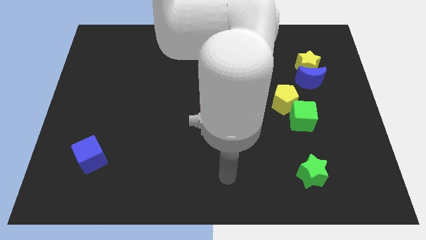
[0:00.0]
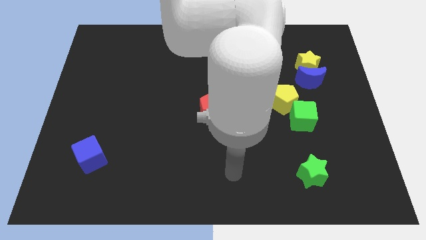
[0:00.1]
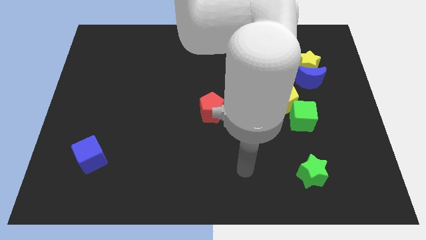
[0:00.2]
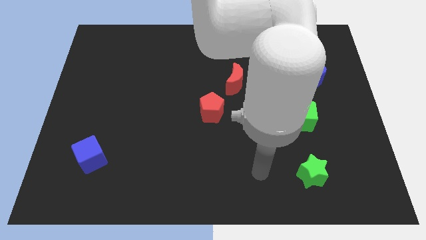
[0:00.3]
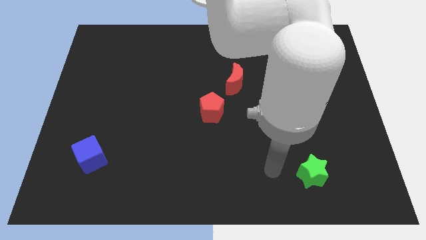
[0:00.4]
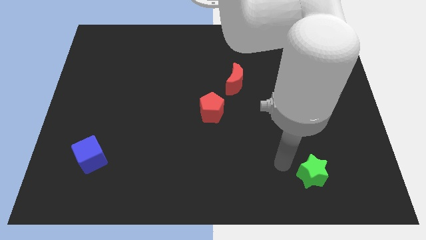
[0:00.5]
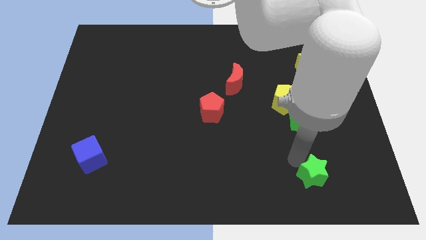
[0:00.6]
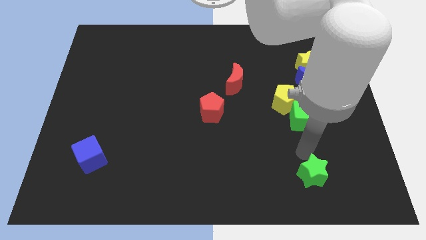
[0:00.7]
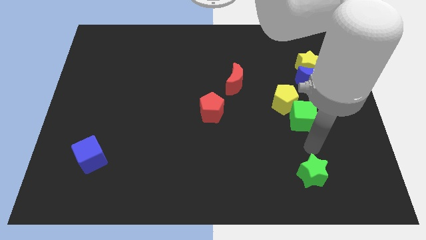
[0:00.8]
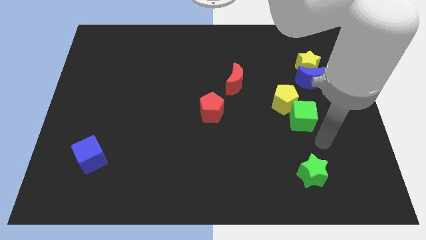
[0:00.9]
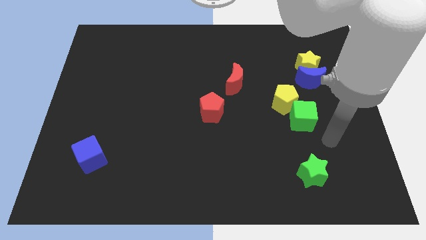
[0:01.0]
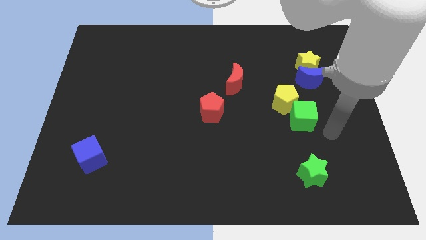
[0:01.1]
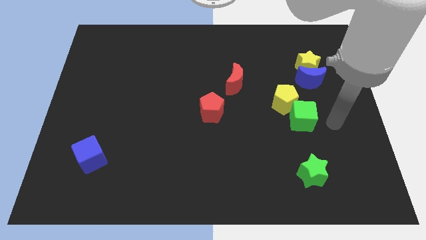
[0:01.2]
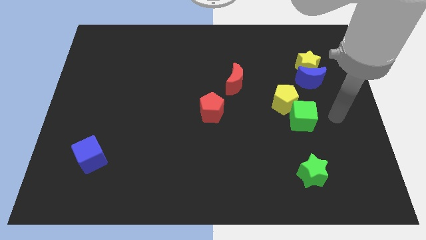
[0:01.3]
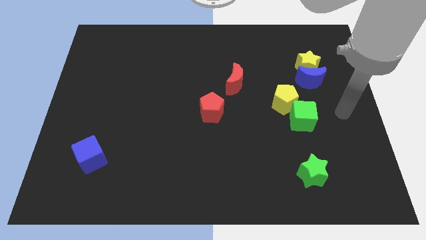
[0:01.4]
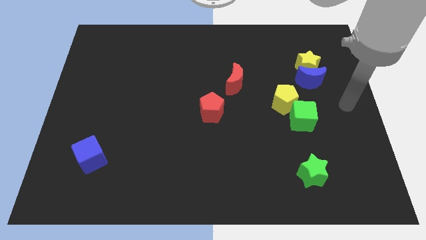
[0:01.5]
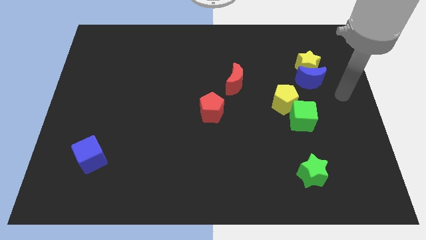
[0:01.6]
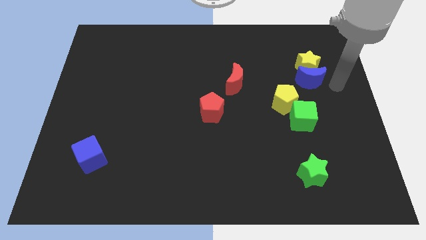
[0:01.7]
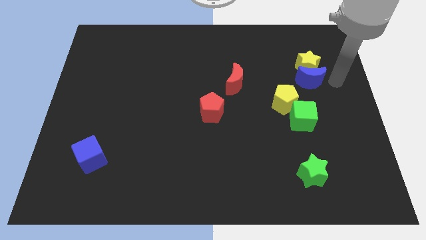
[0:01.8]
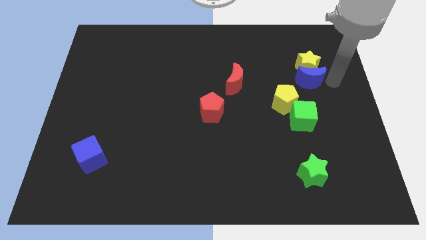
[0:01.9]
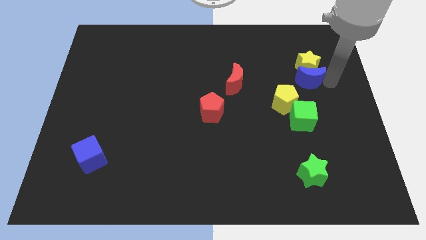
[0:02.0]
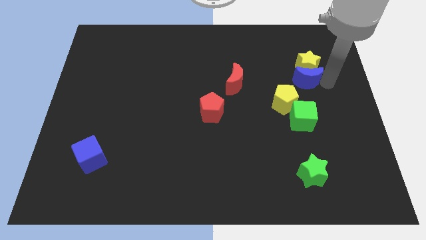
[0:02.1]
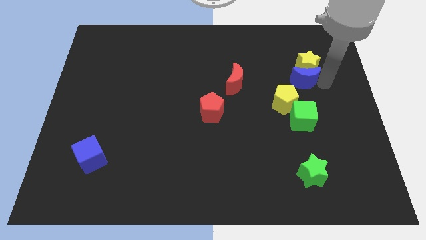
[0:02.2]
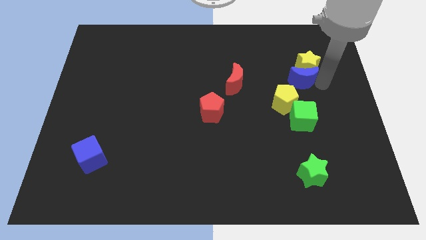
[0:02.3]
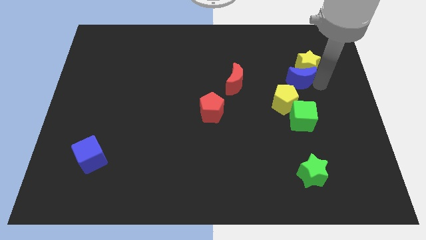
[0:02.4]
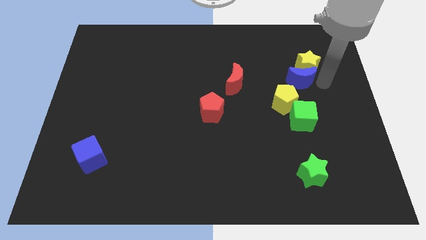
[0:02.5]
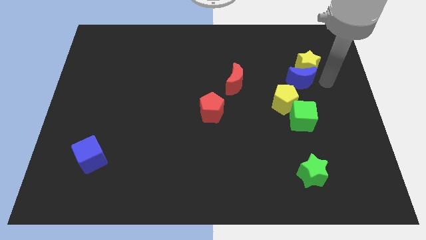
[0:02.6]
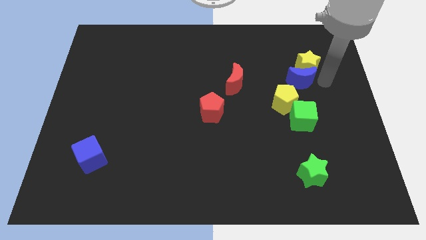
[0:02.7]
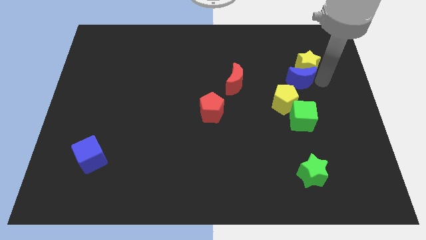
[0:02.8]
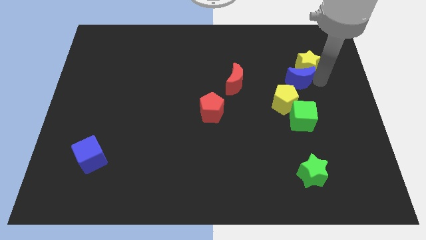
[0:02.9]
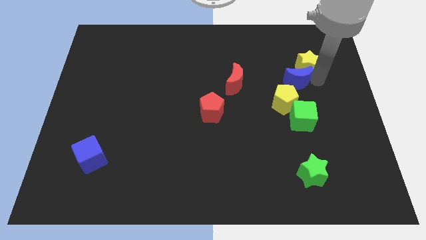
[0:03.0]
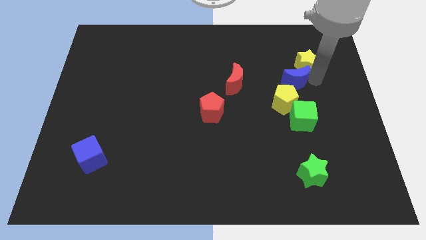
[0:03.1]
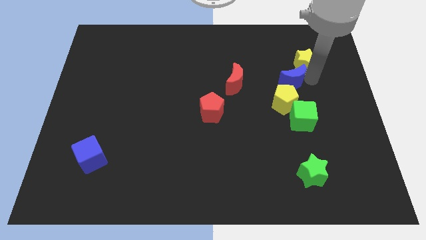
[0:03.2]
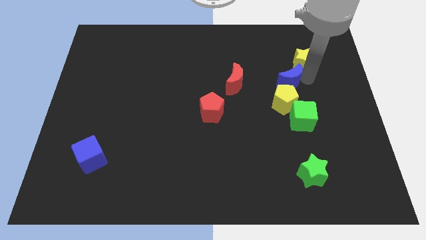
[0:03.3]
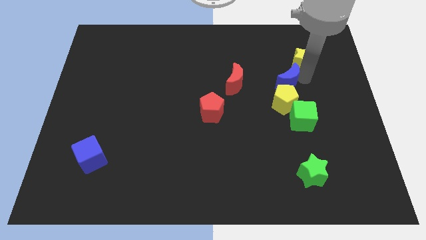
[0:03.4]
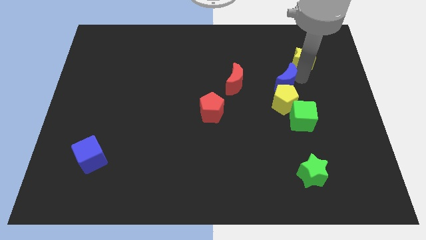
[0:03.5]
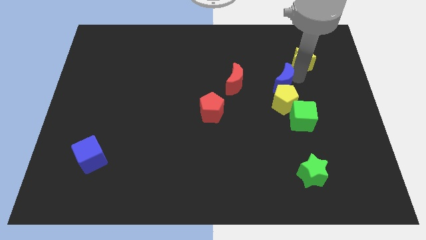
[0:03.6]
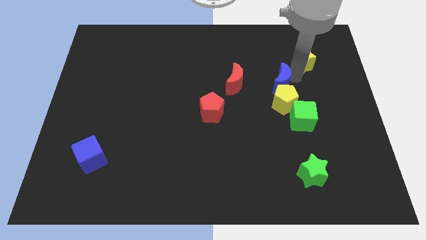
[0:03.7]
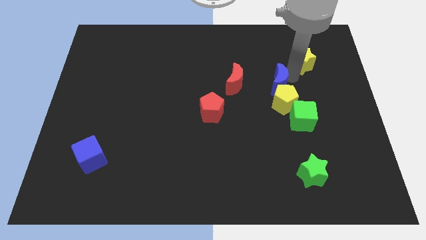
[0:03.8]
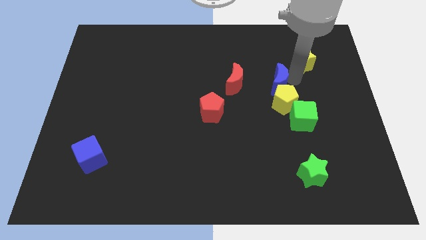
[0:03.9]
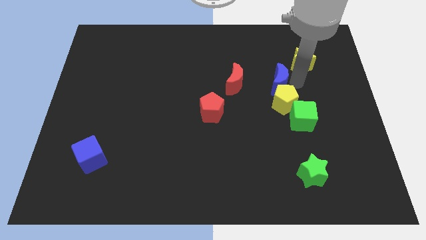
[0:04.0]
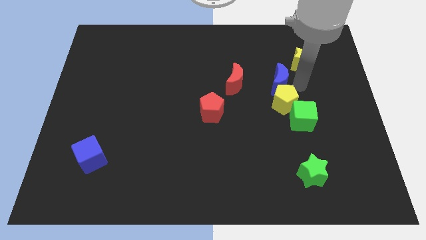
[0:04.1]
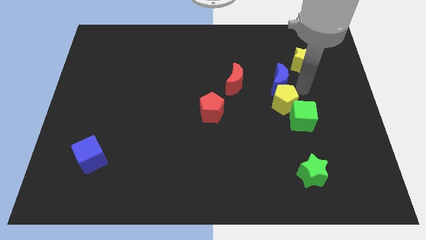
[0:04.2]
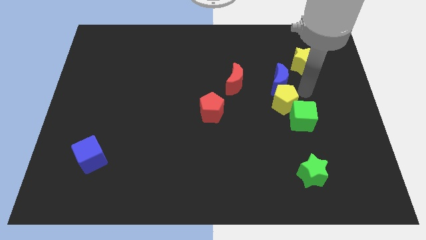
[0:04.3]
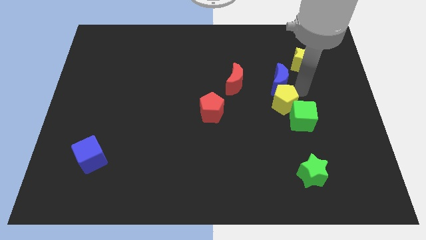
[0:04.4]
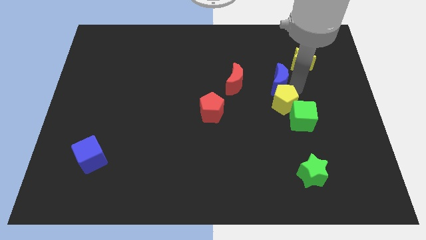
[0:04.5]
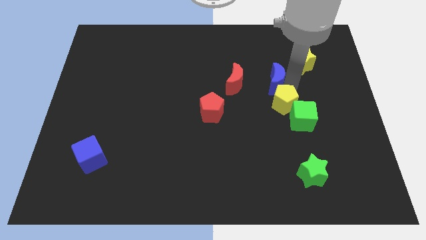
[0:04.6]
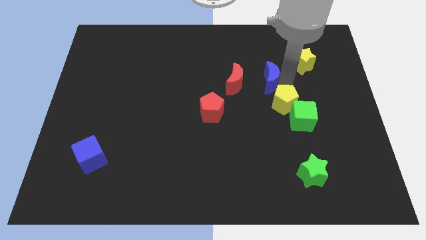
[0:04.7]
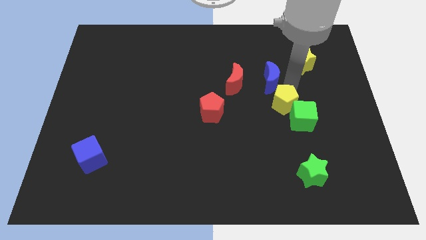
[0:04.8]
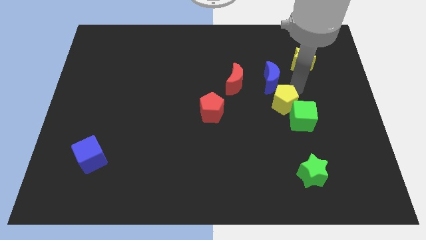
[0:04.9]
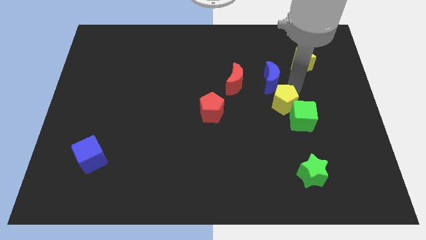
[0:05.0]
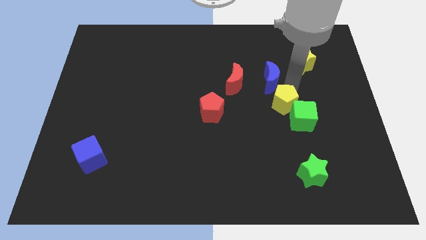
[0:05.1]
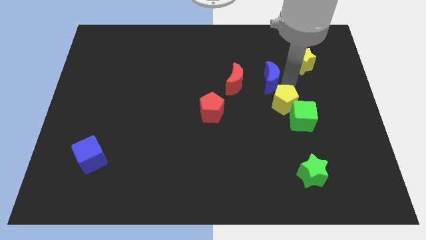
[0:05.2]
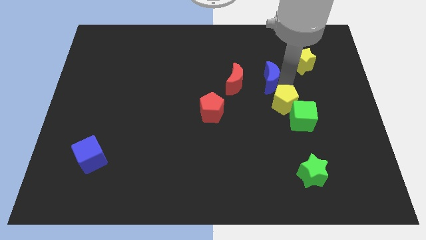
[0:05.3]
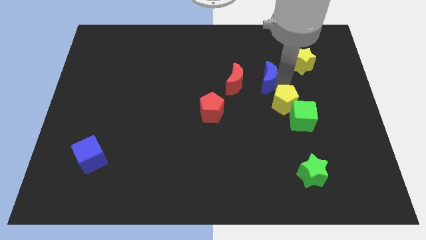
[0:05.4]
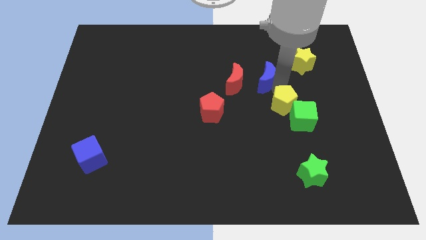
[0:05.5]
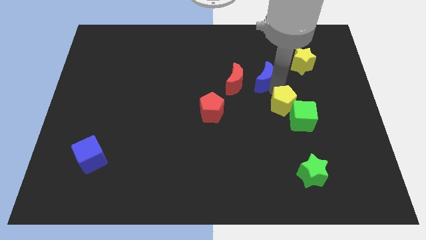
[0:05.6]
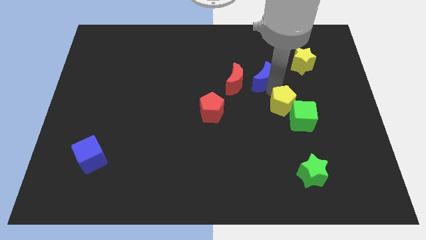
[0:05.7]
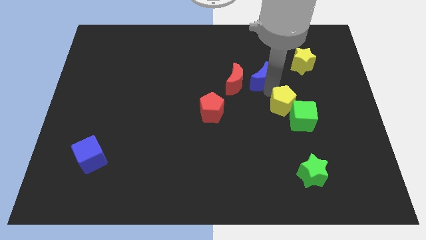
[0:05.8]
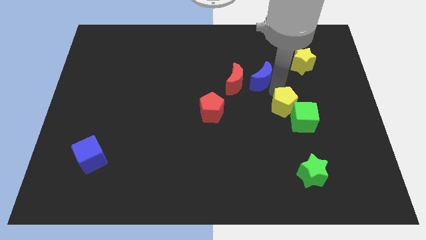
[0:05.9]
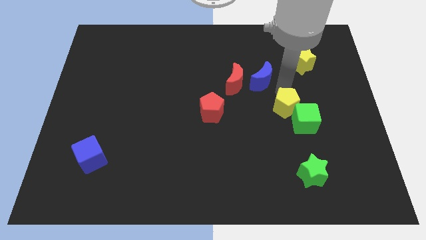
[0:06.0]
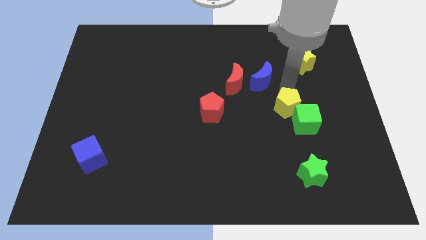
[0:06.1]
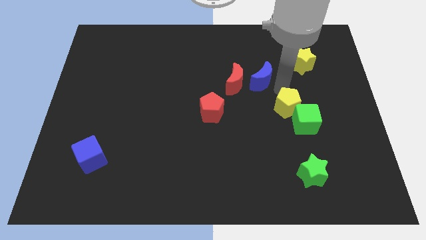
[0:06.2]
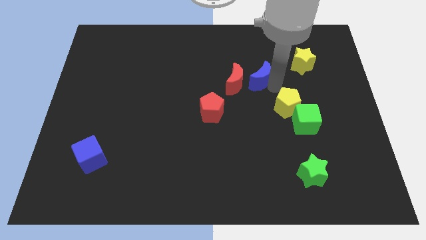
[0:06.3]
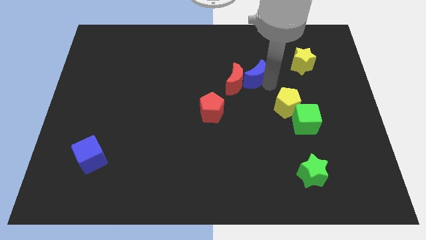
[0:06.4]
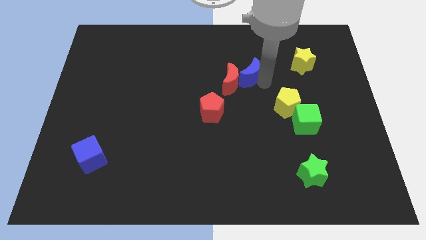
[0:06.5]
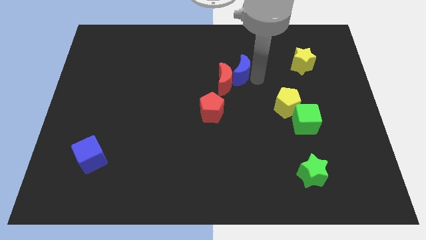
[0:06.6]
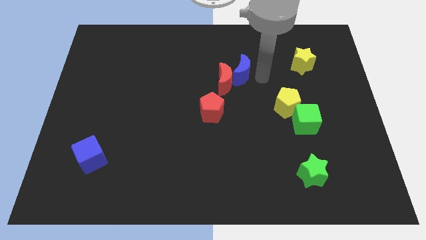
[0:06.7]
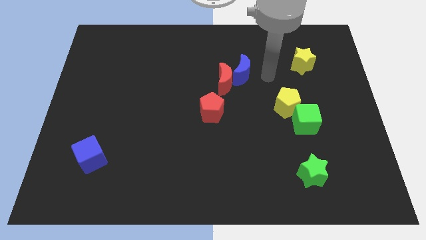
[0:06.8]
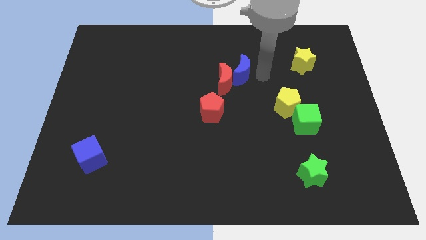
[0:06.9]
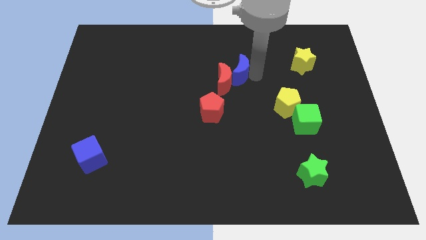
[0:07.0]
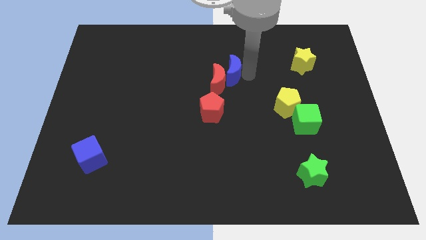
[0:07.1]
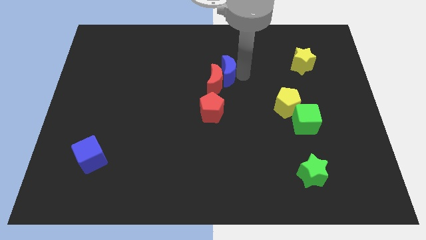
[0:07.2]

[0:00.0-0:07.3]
slide the blue moon to the left

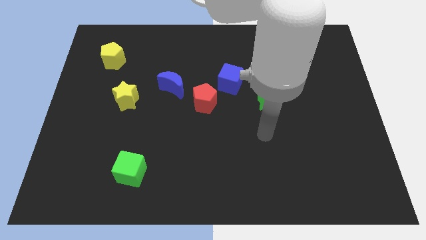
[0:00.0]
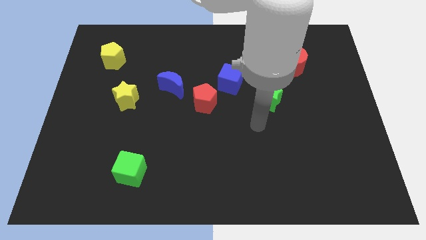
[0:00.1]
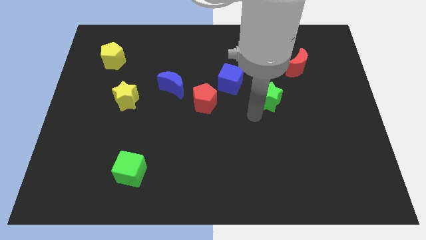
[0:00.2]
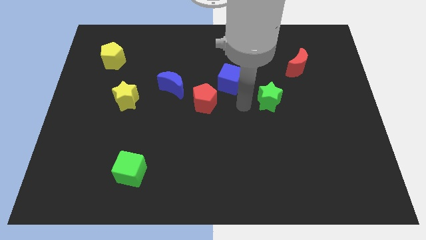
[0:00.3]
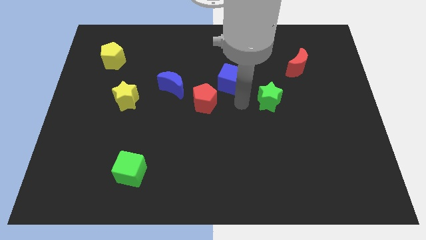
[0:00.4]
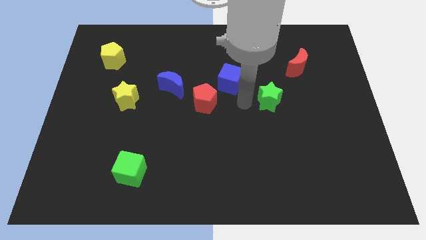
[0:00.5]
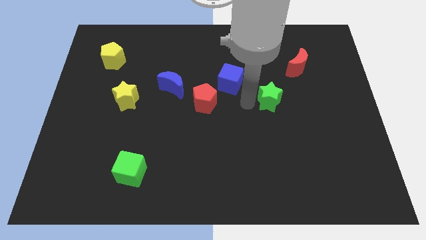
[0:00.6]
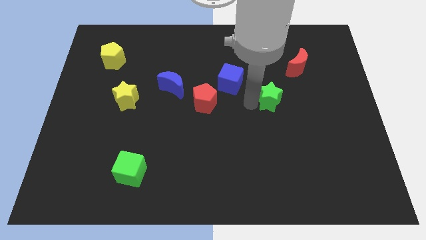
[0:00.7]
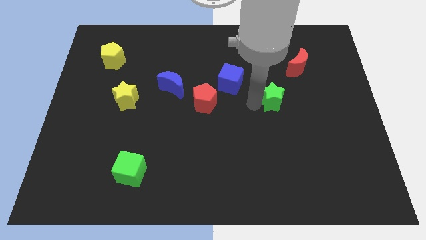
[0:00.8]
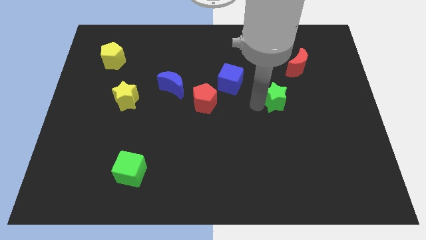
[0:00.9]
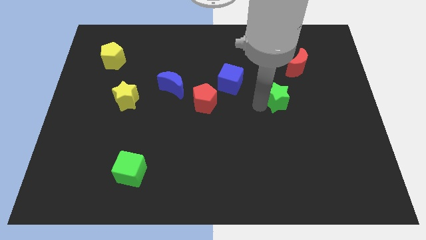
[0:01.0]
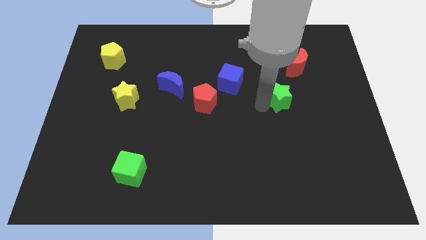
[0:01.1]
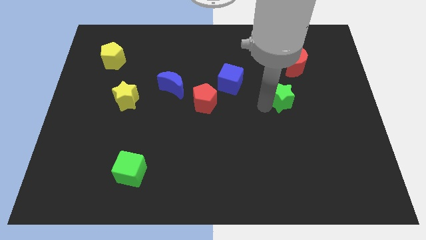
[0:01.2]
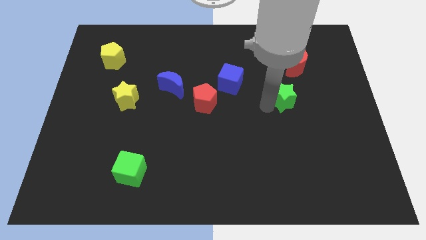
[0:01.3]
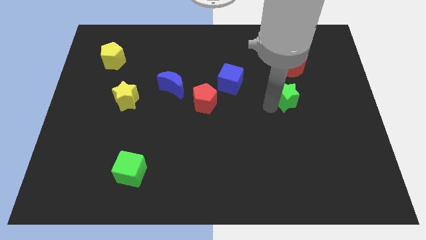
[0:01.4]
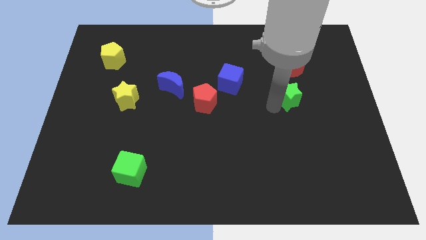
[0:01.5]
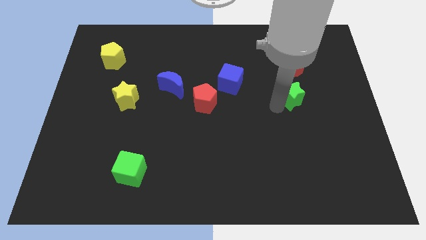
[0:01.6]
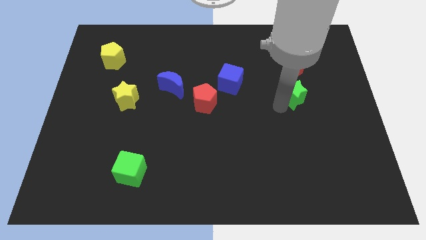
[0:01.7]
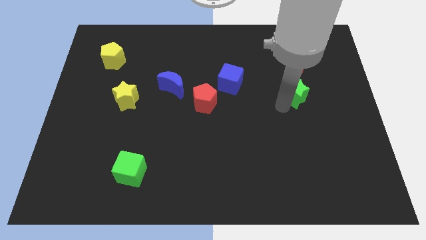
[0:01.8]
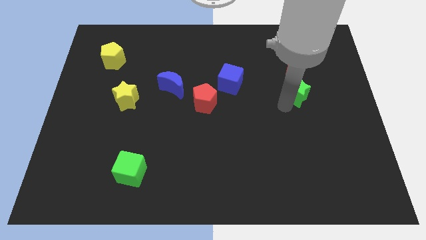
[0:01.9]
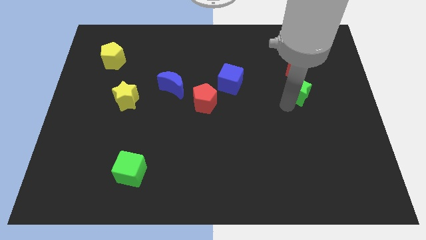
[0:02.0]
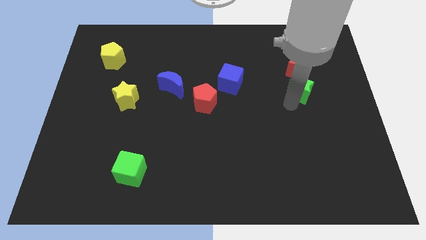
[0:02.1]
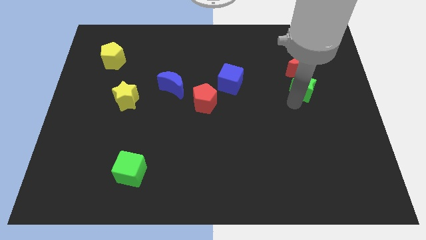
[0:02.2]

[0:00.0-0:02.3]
move the green star slightly diagonally up and right
